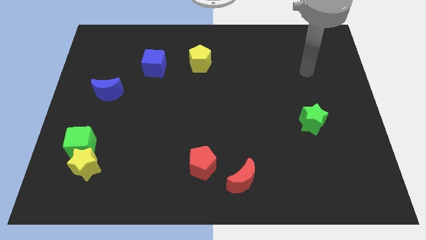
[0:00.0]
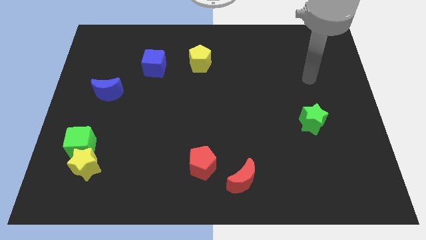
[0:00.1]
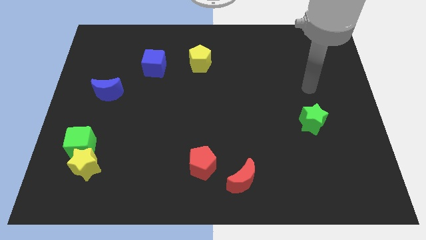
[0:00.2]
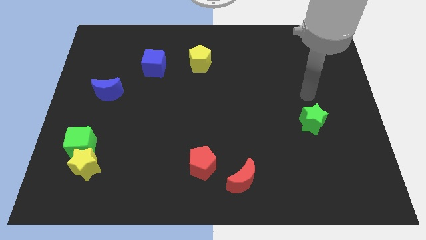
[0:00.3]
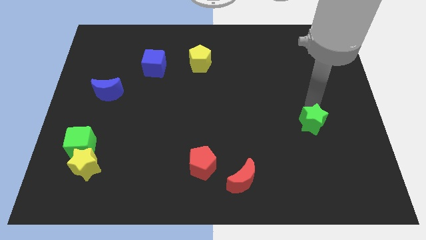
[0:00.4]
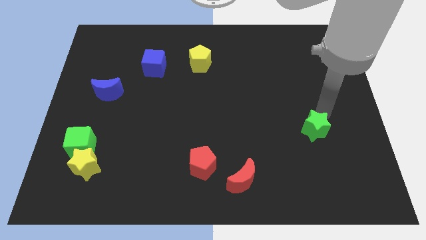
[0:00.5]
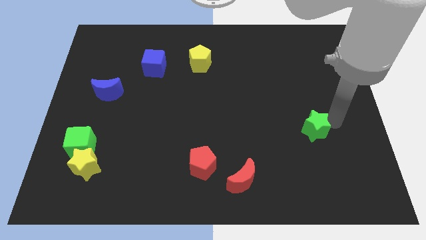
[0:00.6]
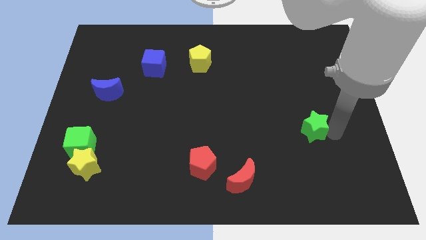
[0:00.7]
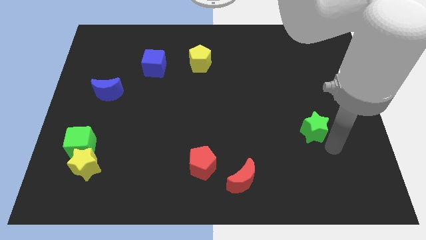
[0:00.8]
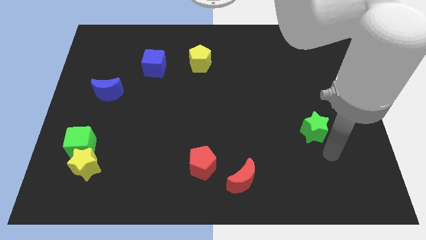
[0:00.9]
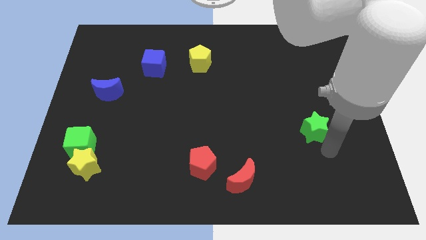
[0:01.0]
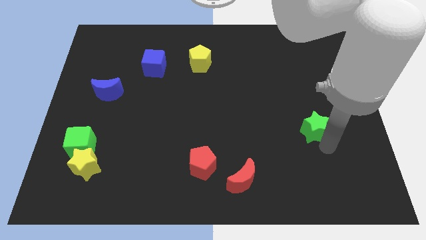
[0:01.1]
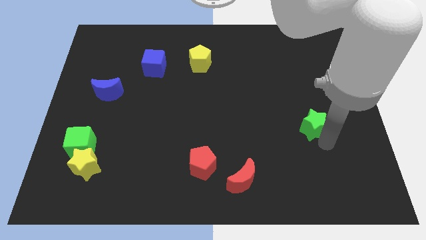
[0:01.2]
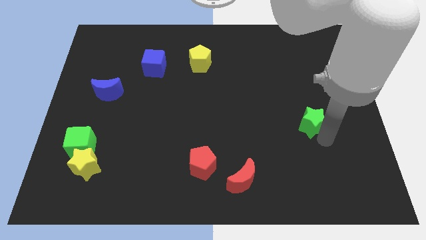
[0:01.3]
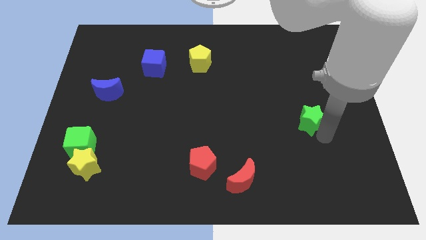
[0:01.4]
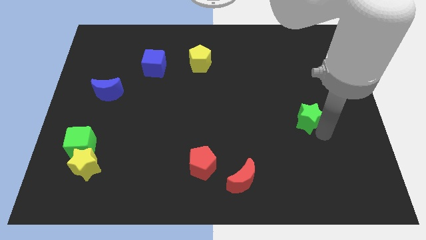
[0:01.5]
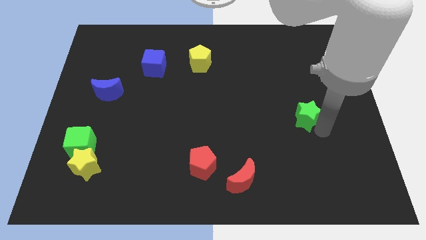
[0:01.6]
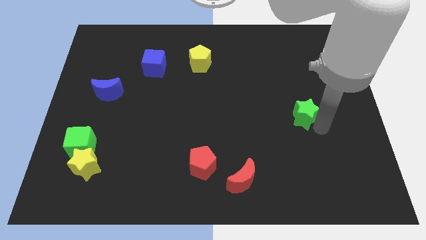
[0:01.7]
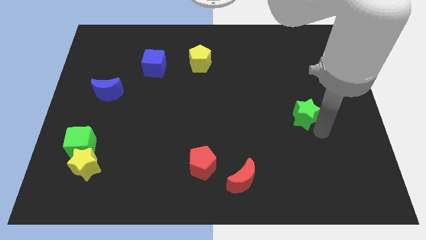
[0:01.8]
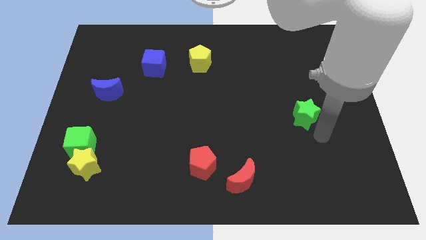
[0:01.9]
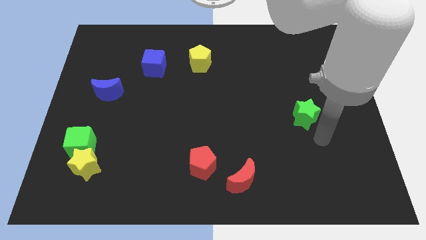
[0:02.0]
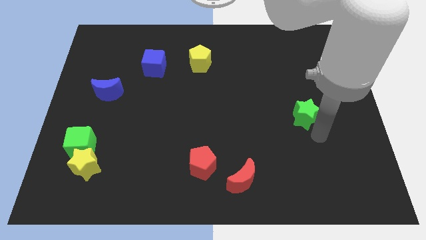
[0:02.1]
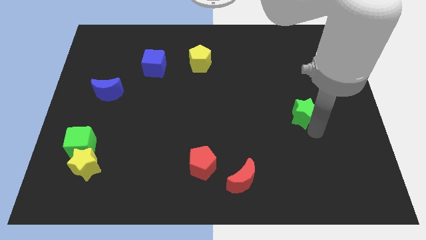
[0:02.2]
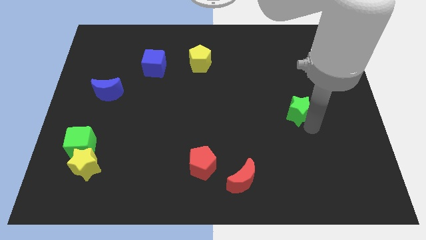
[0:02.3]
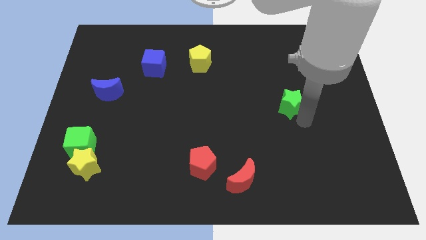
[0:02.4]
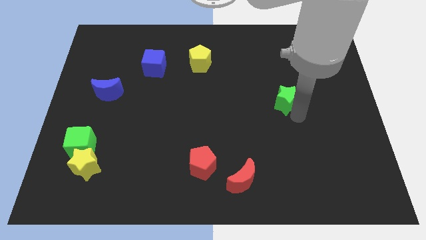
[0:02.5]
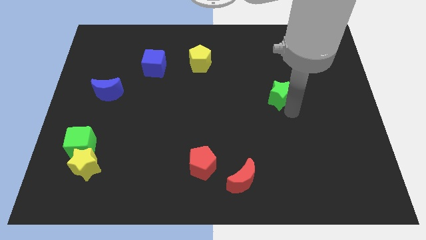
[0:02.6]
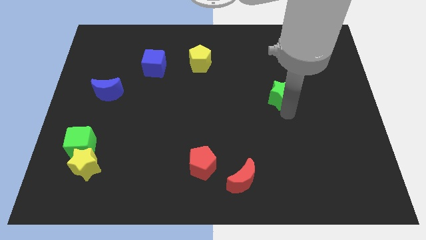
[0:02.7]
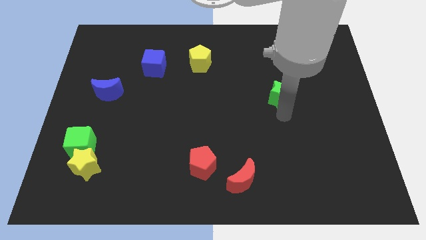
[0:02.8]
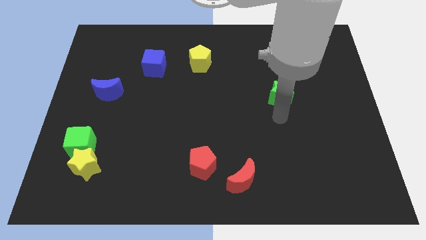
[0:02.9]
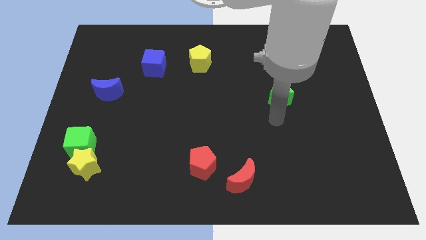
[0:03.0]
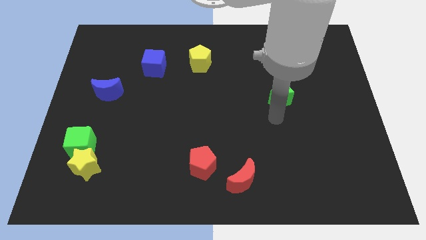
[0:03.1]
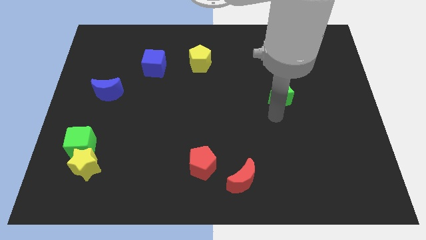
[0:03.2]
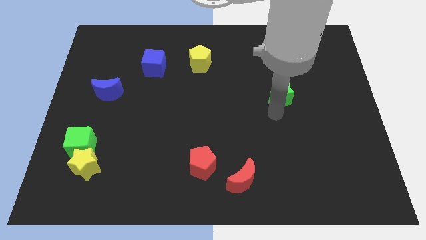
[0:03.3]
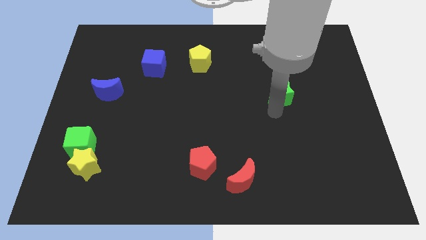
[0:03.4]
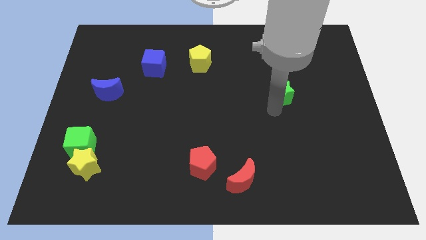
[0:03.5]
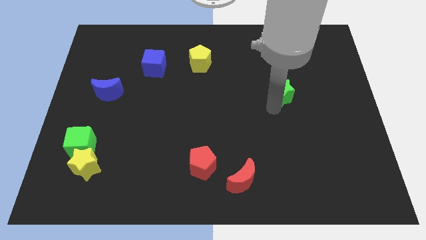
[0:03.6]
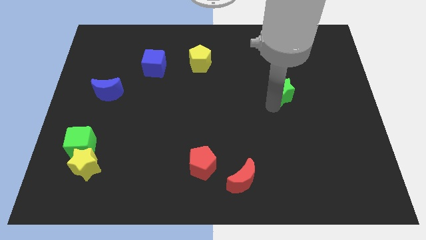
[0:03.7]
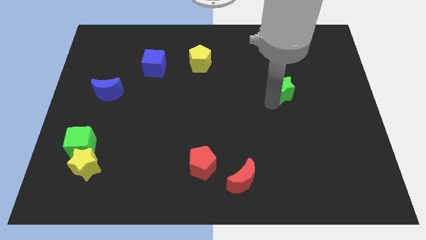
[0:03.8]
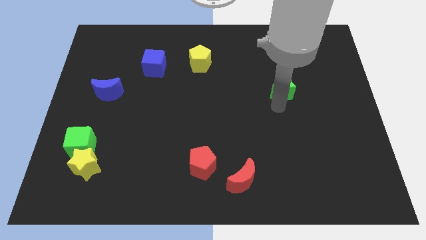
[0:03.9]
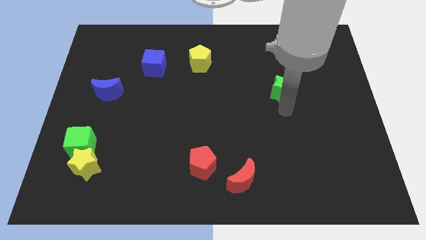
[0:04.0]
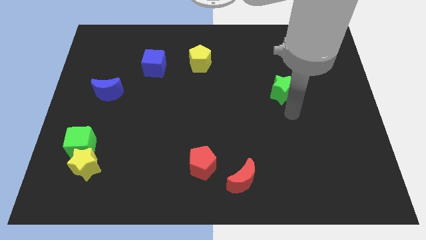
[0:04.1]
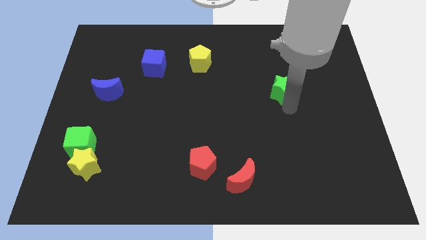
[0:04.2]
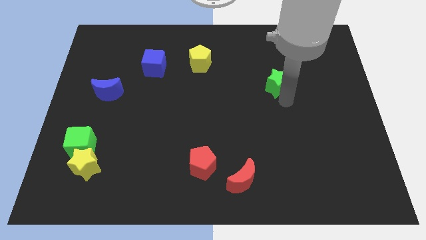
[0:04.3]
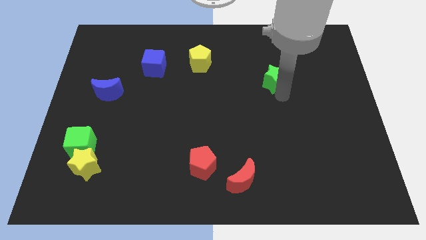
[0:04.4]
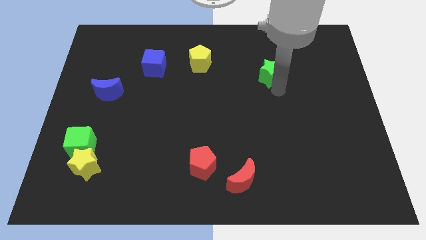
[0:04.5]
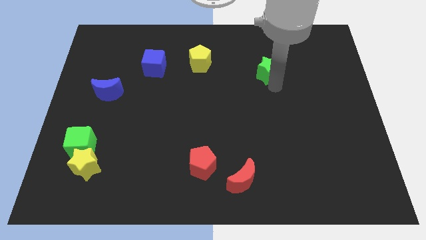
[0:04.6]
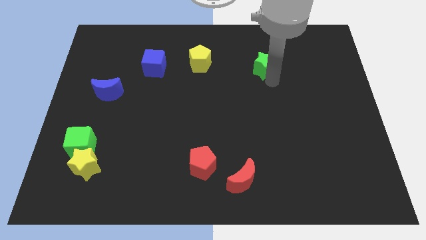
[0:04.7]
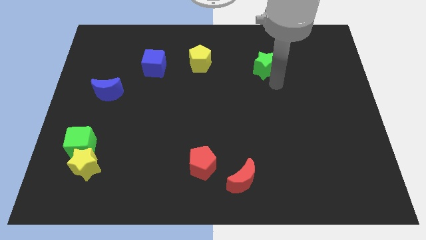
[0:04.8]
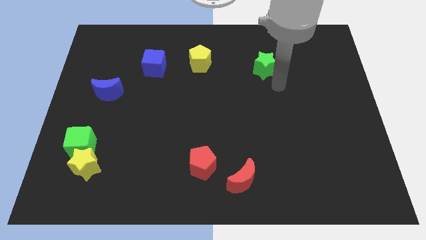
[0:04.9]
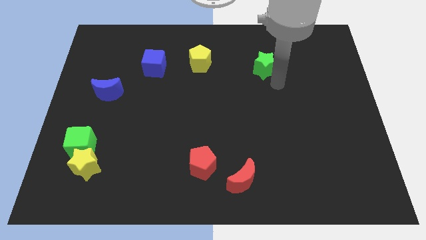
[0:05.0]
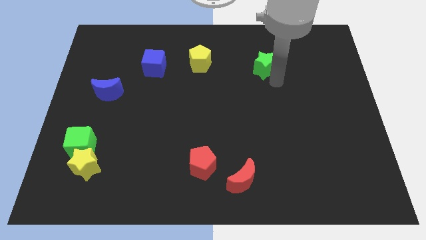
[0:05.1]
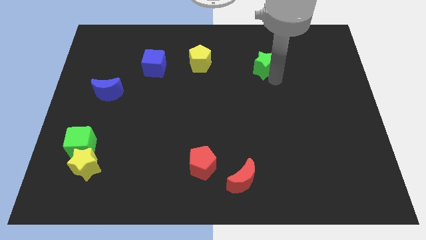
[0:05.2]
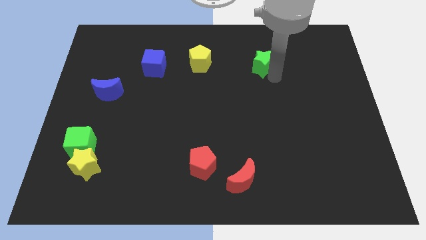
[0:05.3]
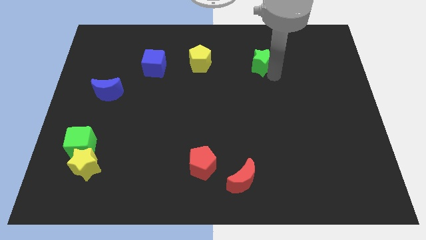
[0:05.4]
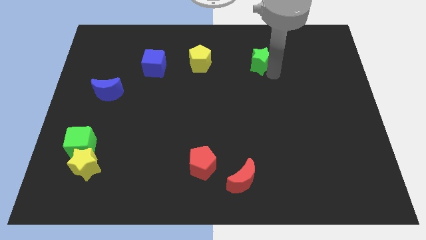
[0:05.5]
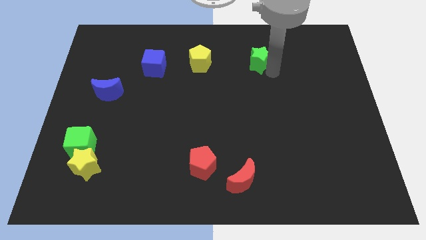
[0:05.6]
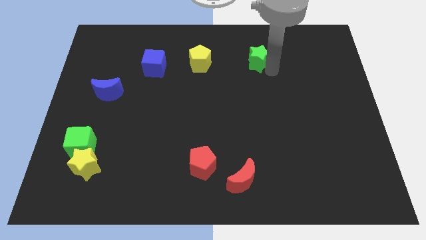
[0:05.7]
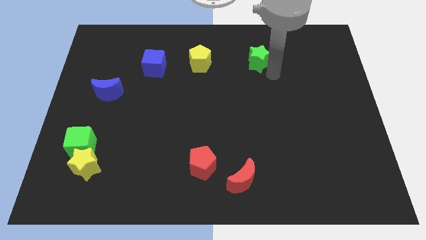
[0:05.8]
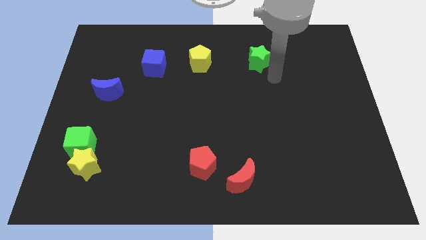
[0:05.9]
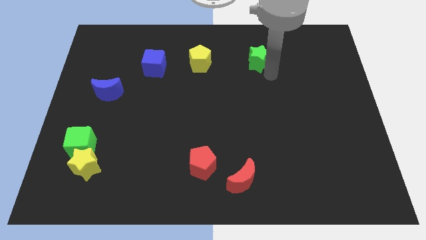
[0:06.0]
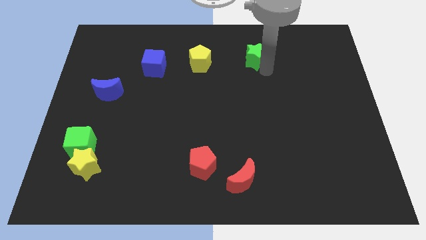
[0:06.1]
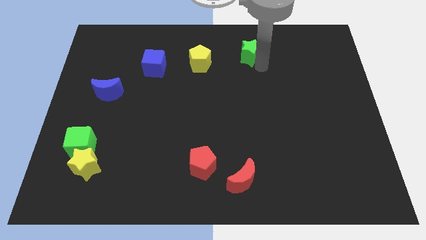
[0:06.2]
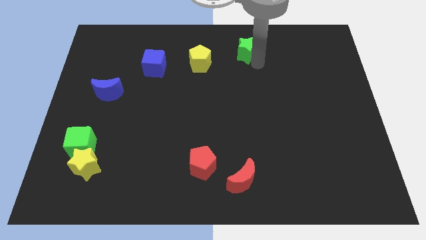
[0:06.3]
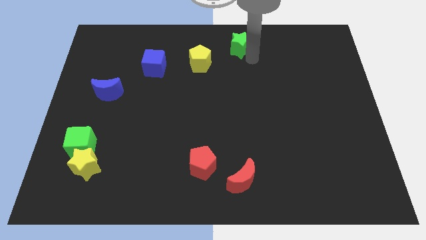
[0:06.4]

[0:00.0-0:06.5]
push the green star to the towards your base

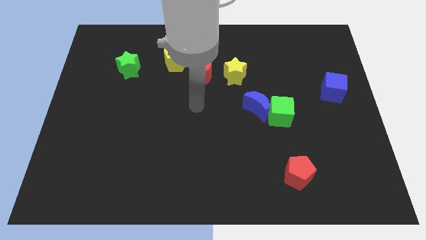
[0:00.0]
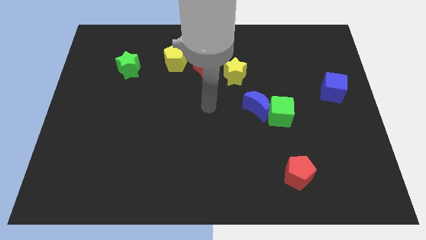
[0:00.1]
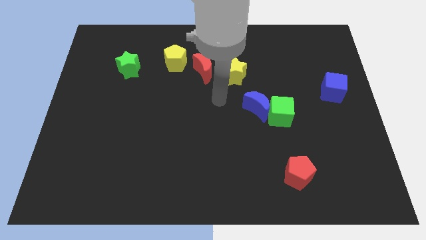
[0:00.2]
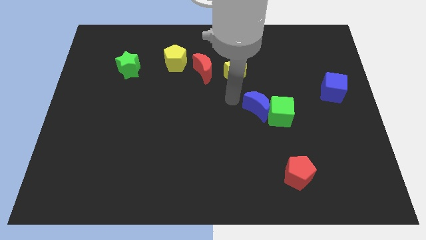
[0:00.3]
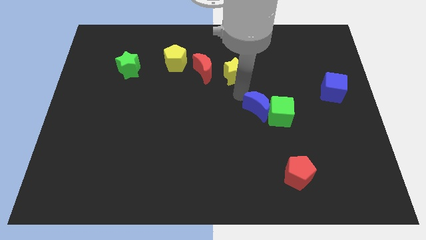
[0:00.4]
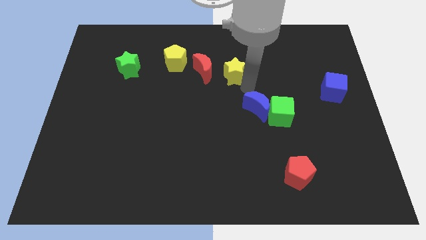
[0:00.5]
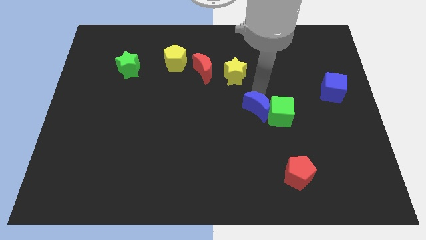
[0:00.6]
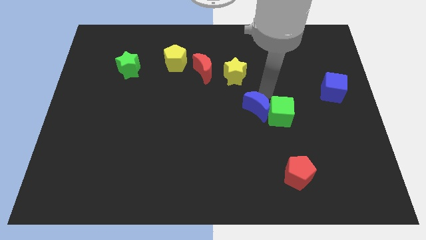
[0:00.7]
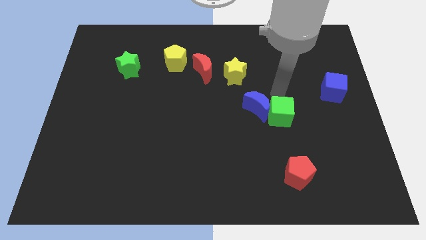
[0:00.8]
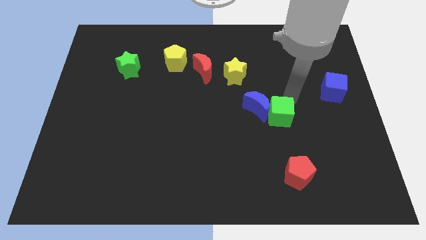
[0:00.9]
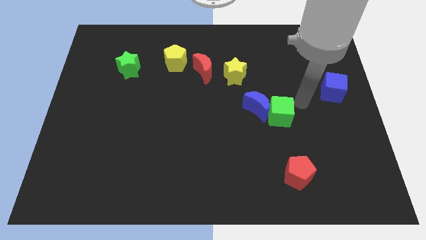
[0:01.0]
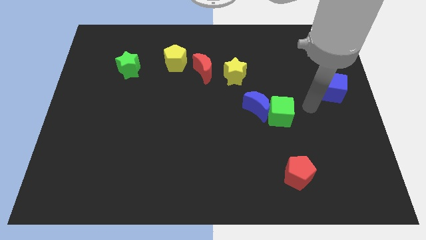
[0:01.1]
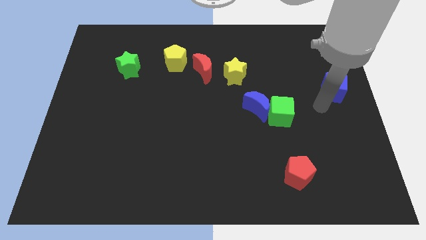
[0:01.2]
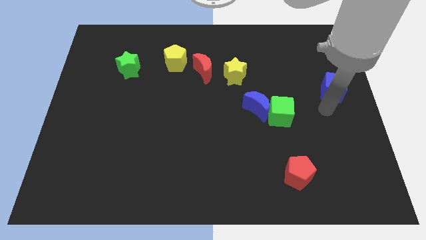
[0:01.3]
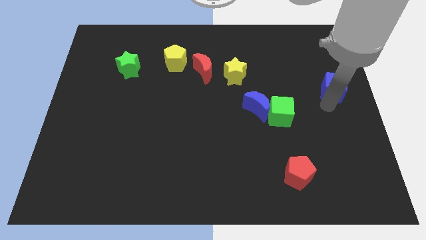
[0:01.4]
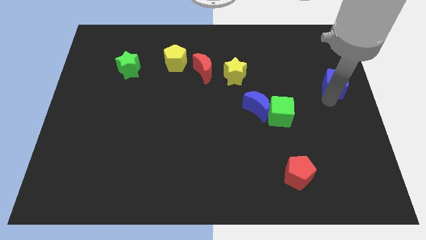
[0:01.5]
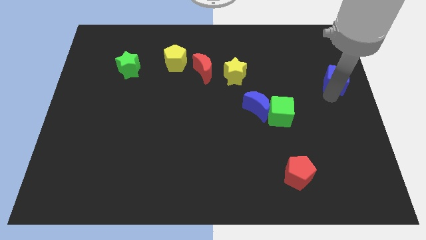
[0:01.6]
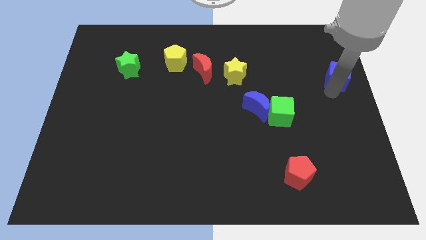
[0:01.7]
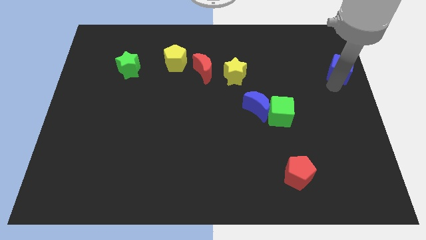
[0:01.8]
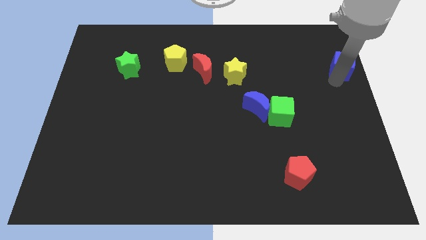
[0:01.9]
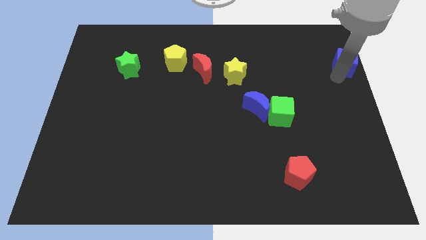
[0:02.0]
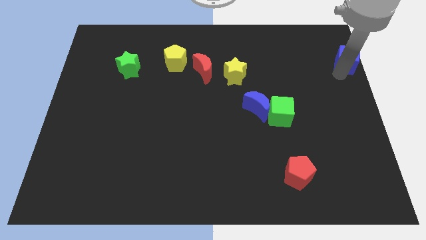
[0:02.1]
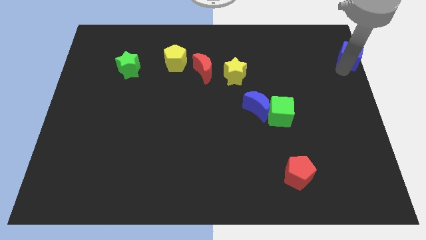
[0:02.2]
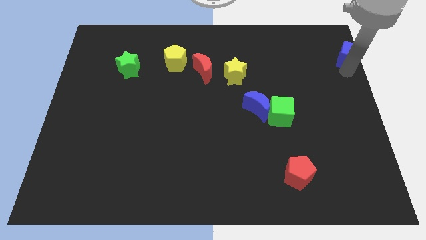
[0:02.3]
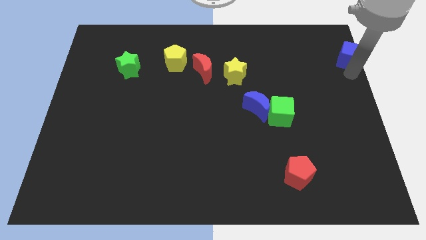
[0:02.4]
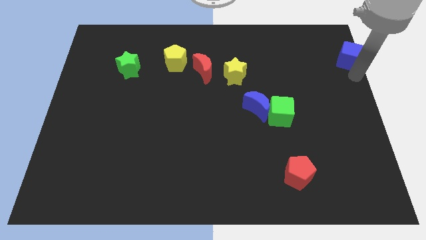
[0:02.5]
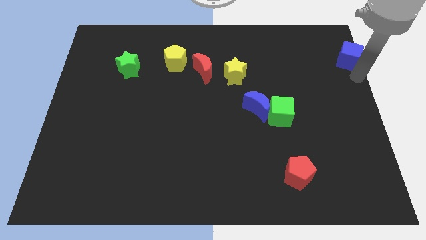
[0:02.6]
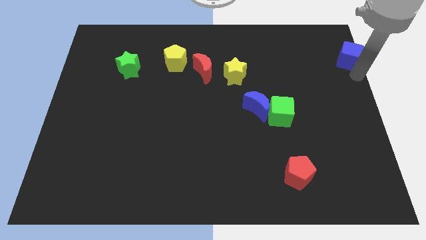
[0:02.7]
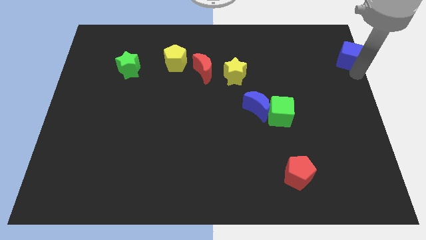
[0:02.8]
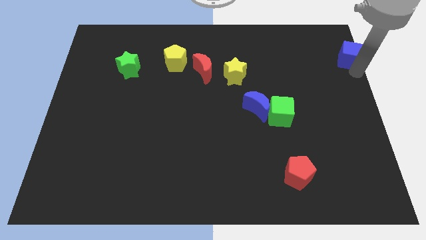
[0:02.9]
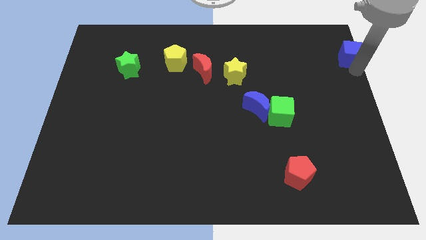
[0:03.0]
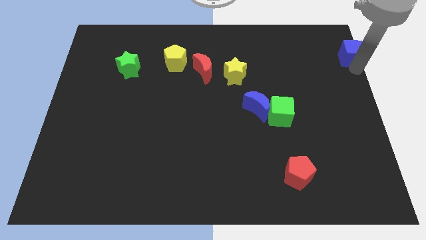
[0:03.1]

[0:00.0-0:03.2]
slide the blue cube to the top right
